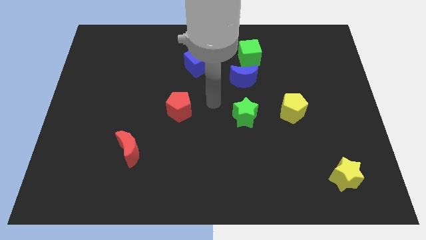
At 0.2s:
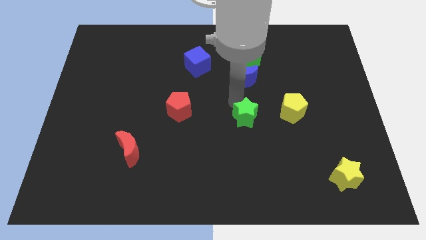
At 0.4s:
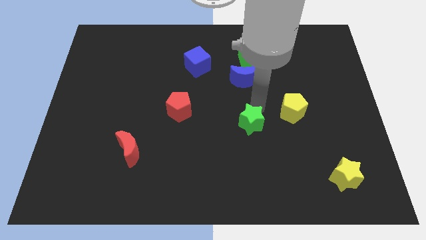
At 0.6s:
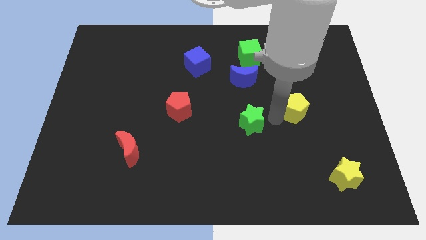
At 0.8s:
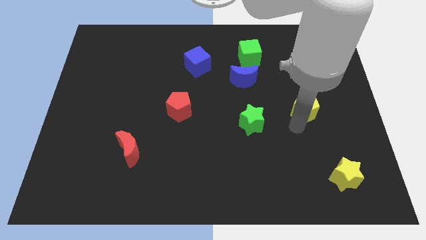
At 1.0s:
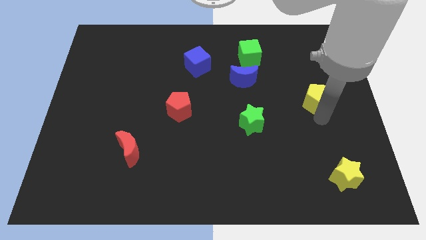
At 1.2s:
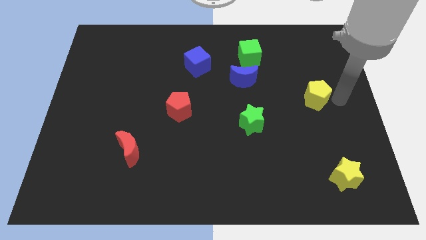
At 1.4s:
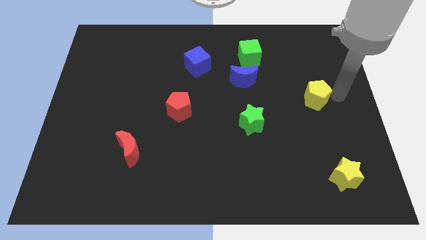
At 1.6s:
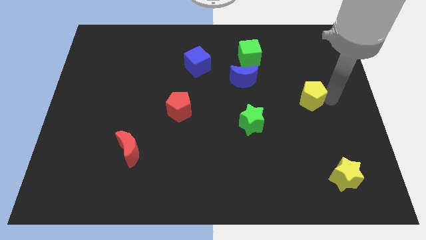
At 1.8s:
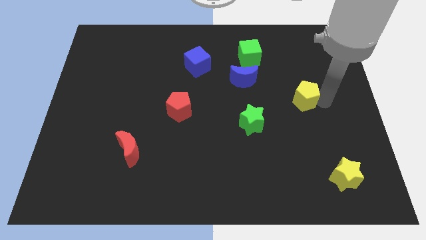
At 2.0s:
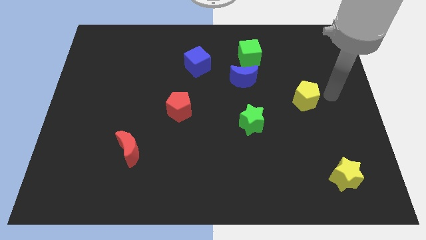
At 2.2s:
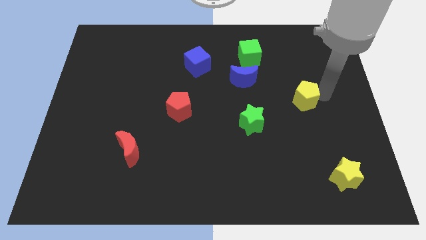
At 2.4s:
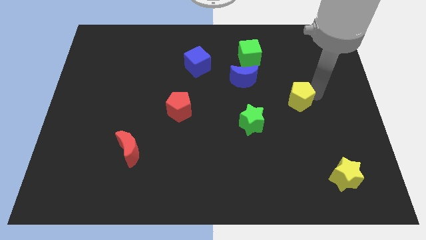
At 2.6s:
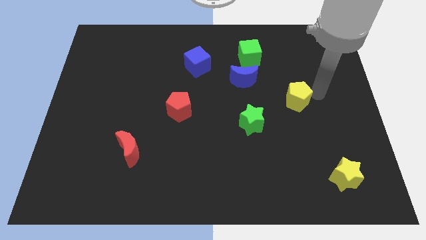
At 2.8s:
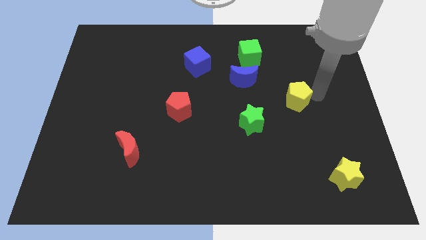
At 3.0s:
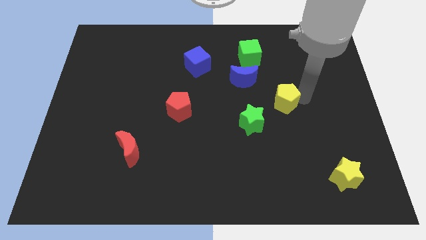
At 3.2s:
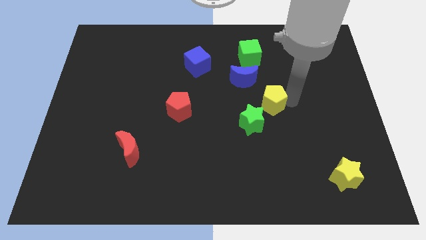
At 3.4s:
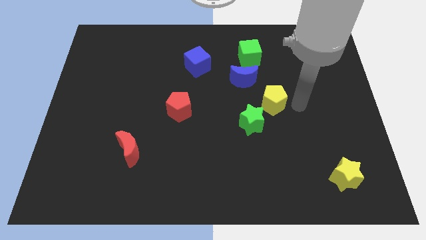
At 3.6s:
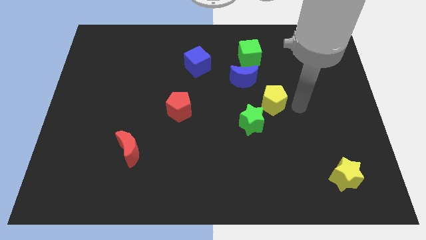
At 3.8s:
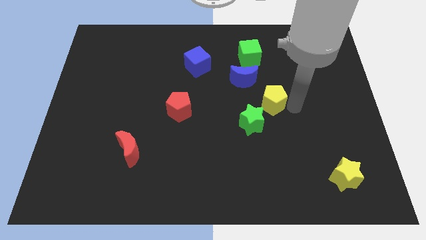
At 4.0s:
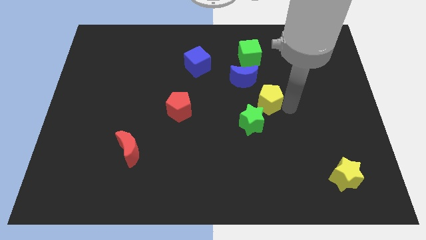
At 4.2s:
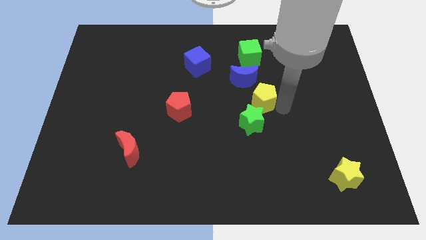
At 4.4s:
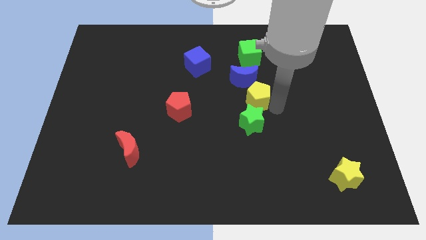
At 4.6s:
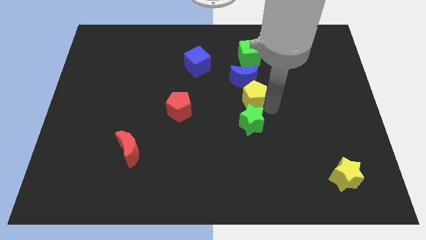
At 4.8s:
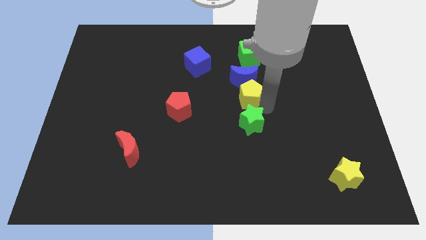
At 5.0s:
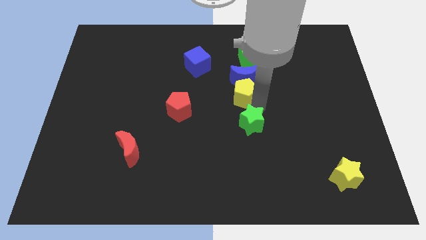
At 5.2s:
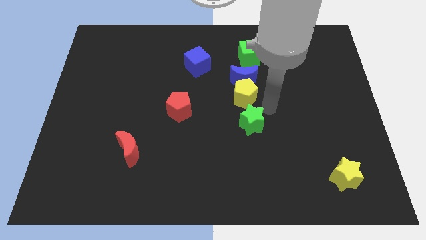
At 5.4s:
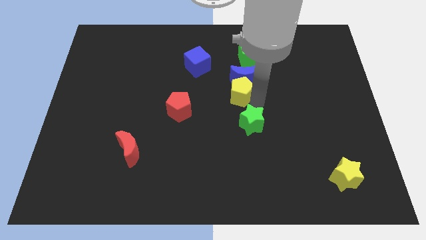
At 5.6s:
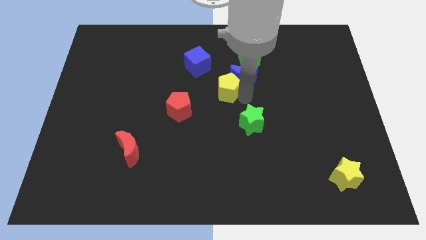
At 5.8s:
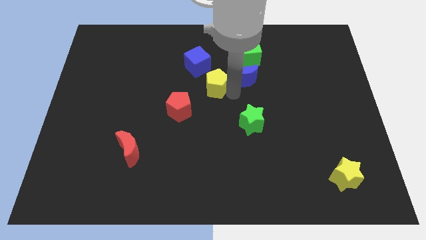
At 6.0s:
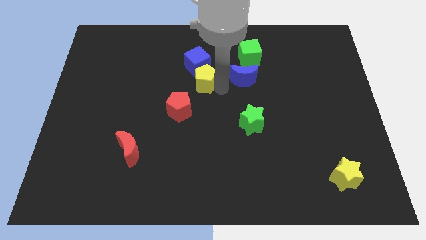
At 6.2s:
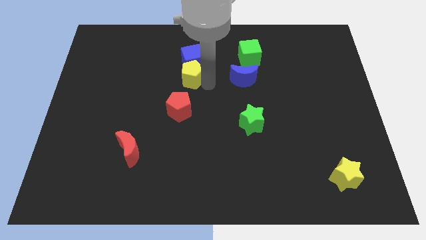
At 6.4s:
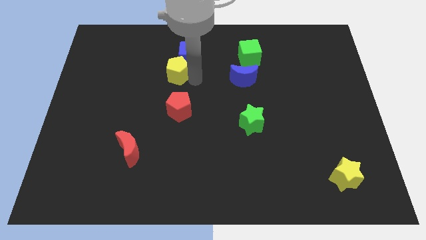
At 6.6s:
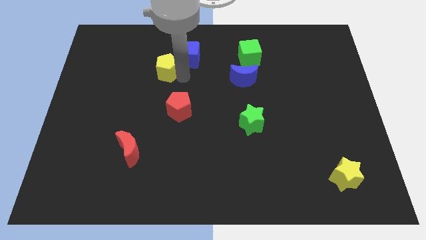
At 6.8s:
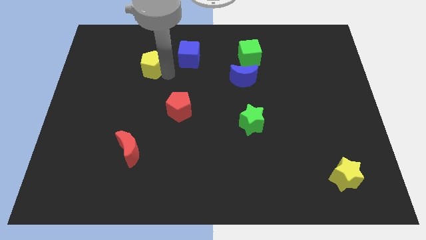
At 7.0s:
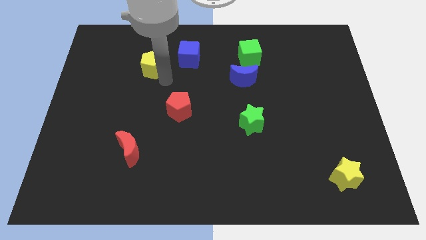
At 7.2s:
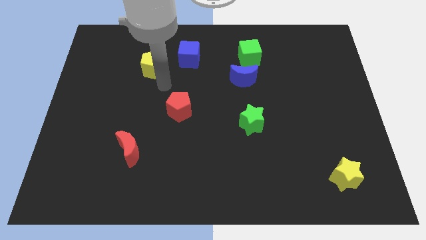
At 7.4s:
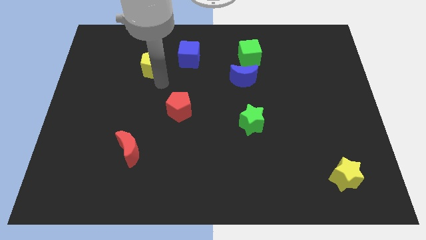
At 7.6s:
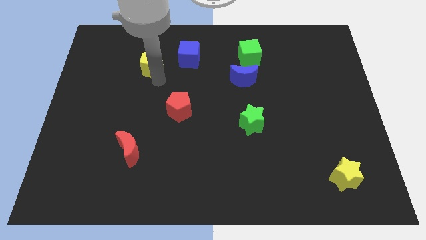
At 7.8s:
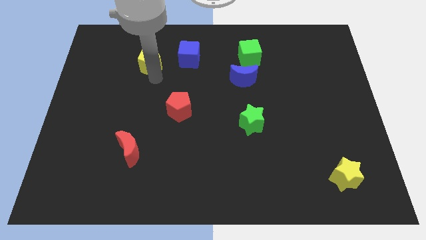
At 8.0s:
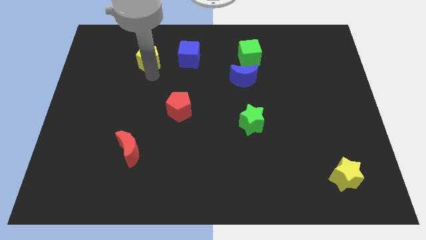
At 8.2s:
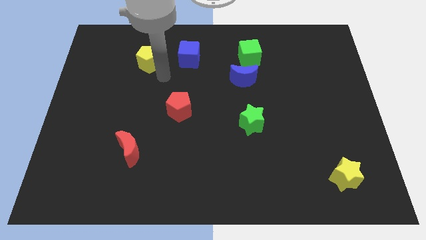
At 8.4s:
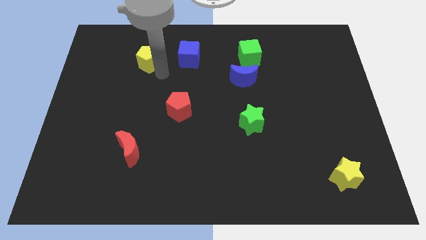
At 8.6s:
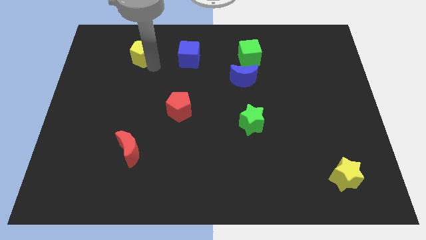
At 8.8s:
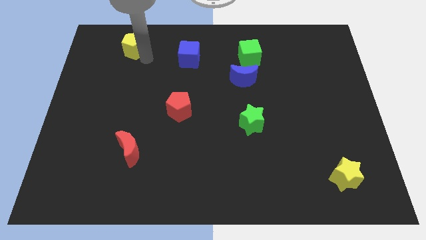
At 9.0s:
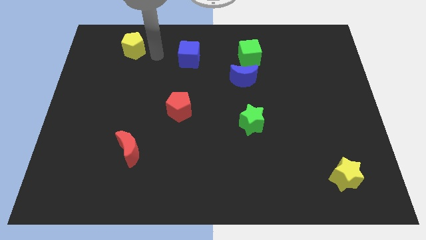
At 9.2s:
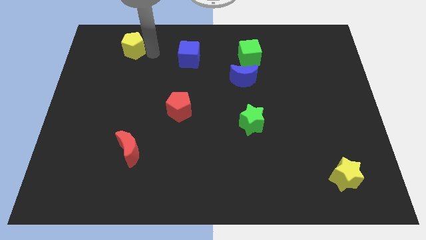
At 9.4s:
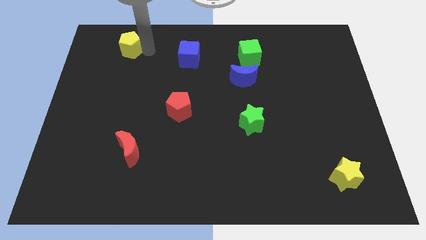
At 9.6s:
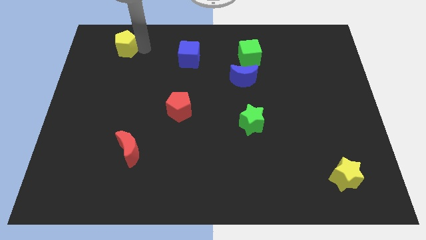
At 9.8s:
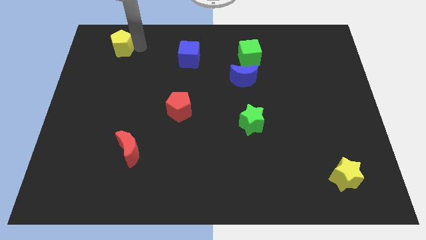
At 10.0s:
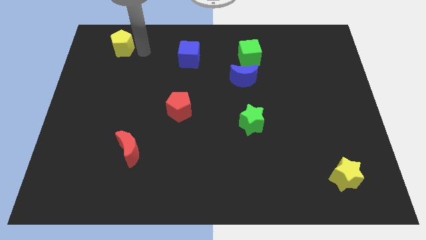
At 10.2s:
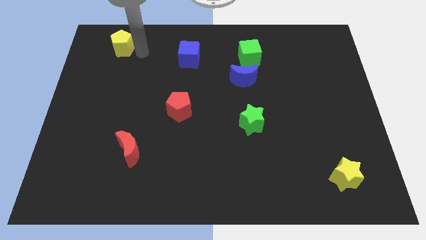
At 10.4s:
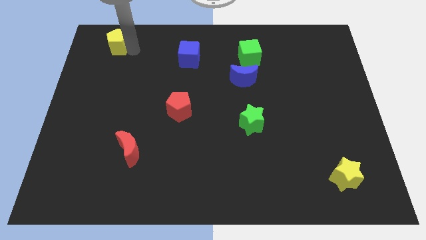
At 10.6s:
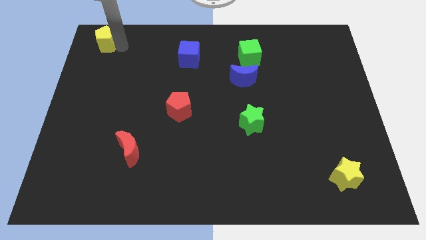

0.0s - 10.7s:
slide the yellow pentagon to the top left of the board

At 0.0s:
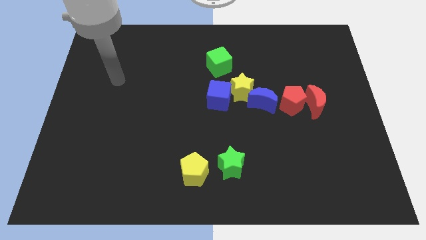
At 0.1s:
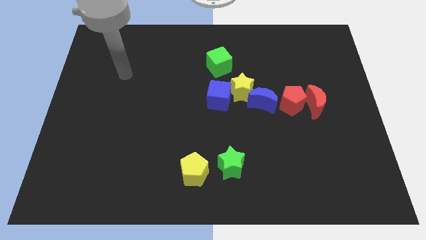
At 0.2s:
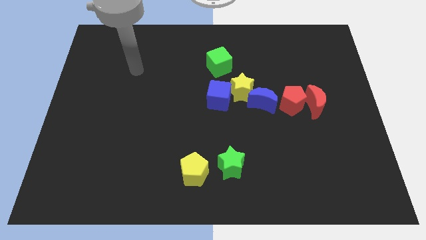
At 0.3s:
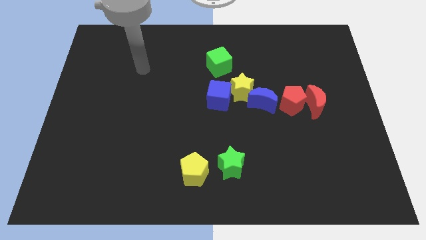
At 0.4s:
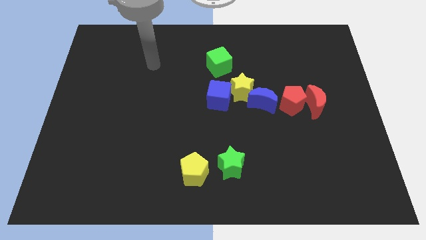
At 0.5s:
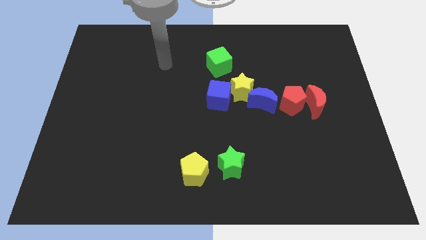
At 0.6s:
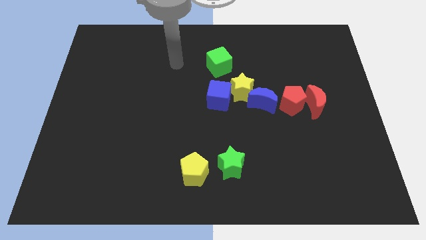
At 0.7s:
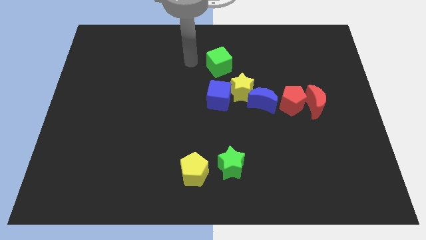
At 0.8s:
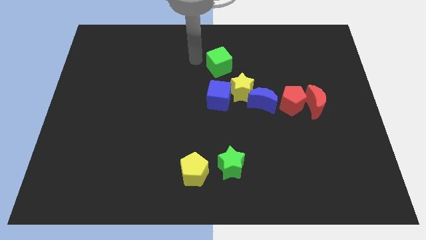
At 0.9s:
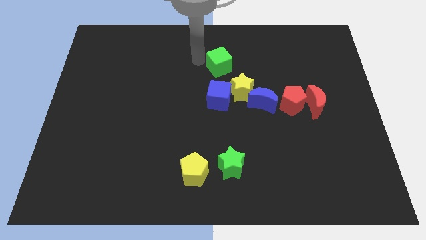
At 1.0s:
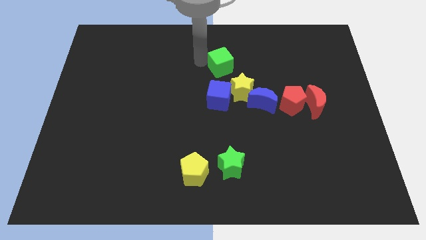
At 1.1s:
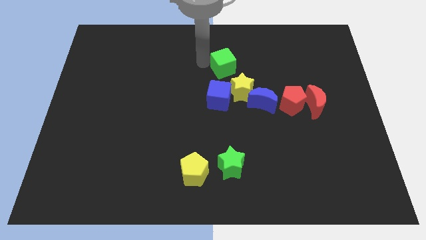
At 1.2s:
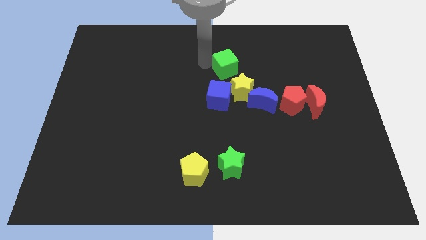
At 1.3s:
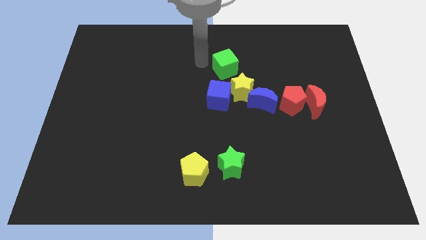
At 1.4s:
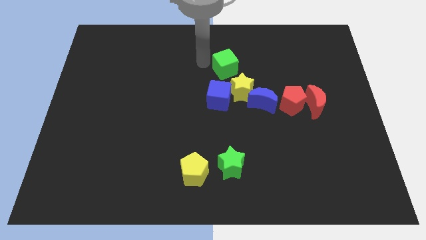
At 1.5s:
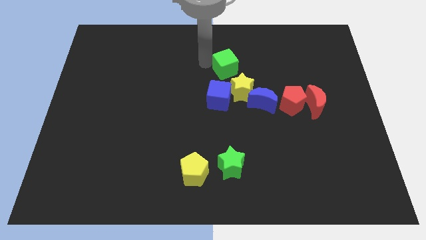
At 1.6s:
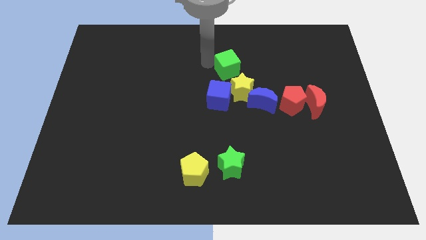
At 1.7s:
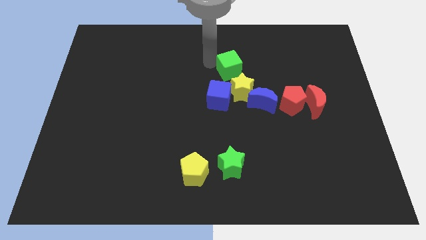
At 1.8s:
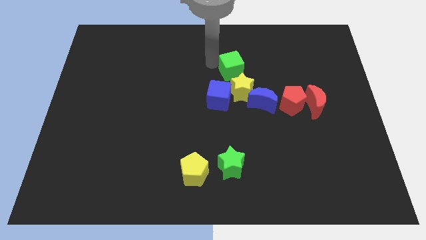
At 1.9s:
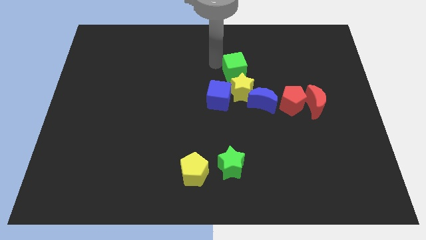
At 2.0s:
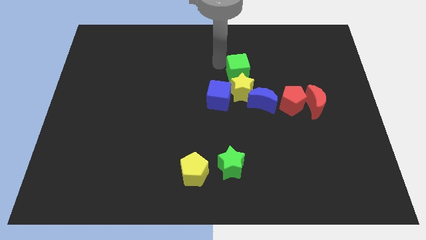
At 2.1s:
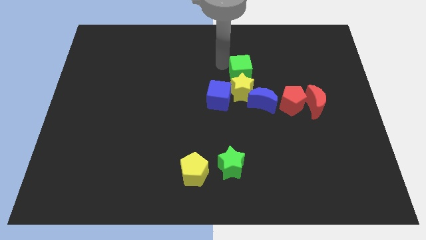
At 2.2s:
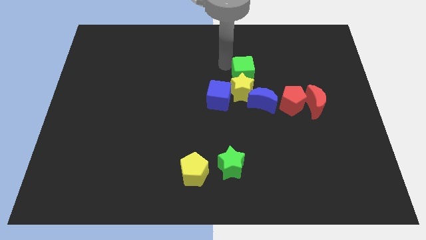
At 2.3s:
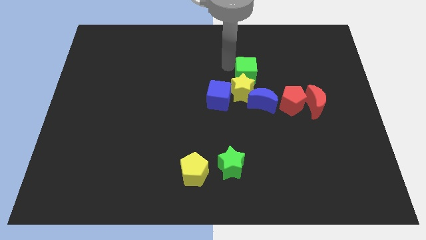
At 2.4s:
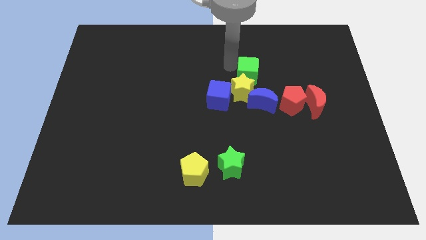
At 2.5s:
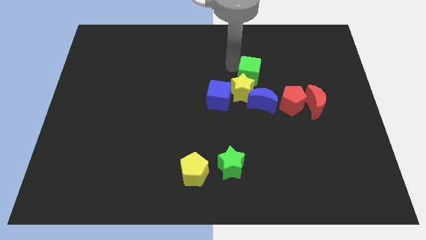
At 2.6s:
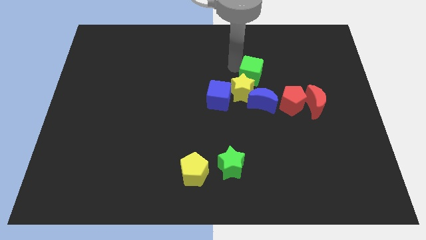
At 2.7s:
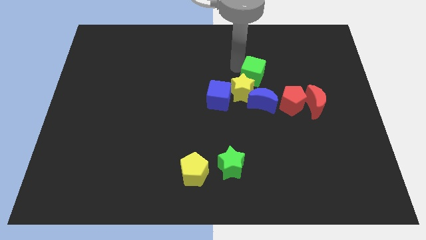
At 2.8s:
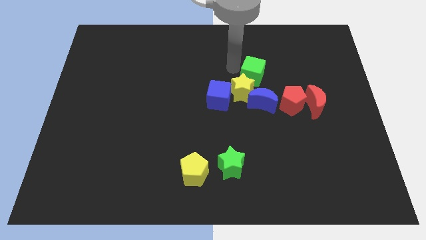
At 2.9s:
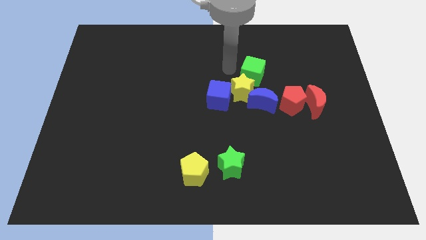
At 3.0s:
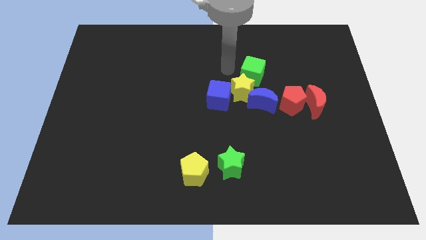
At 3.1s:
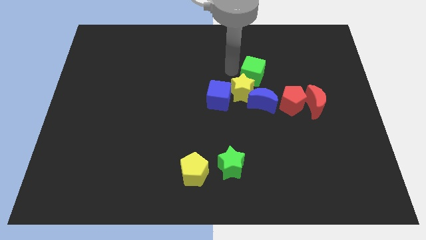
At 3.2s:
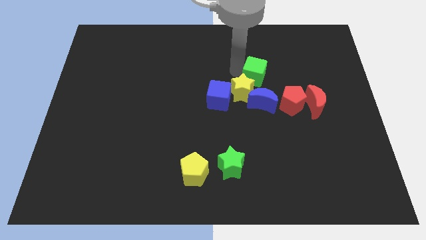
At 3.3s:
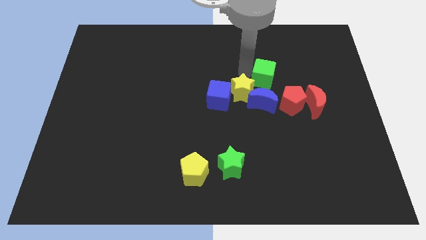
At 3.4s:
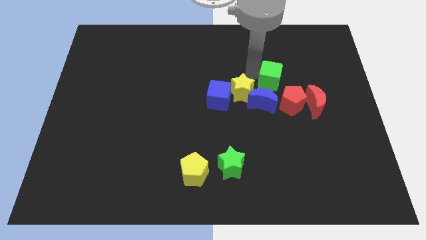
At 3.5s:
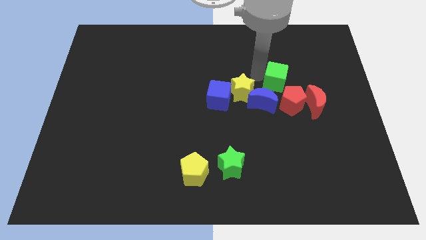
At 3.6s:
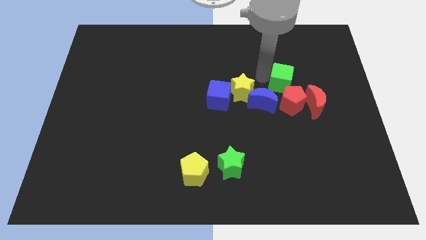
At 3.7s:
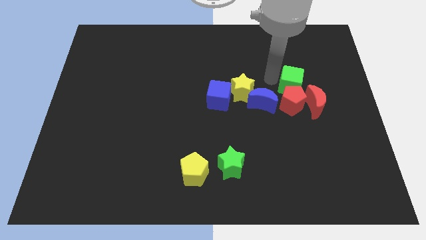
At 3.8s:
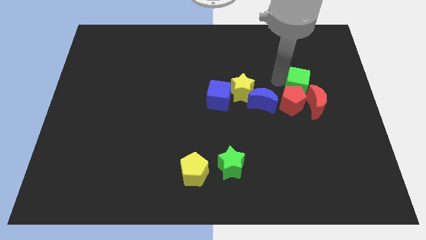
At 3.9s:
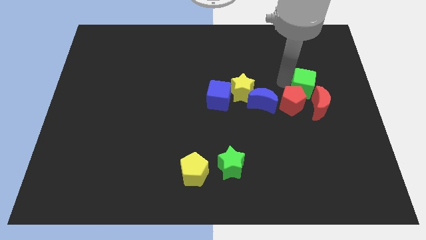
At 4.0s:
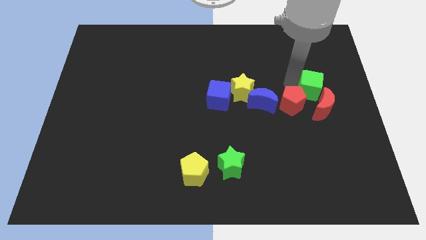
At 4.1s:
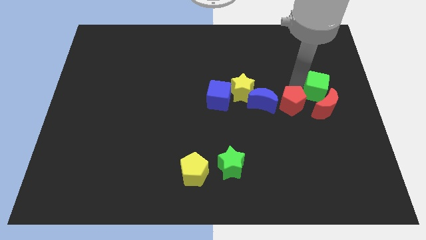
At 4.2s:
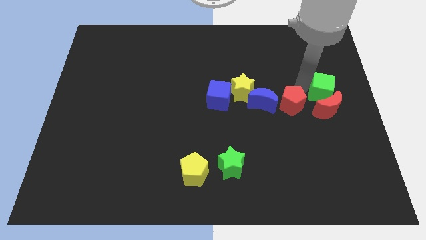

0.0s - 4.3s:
put the green cube to the right side of the board
